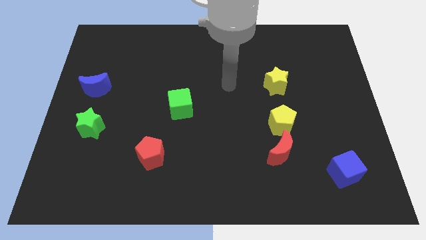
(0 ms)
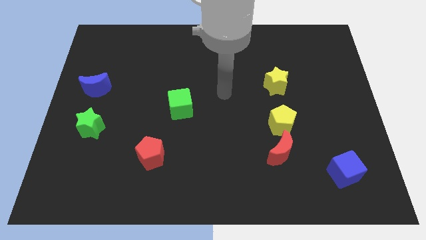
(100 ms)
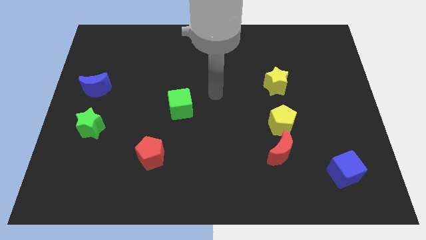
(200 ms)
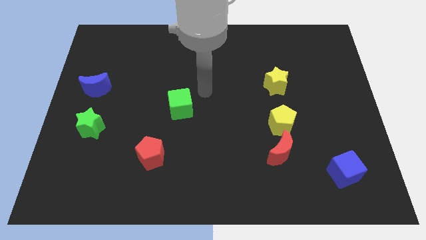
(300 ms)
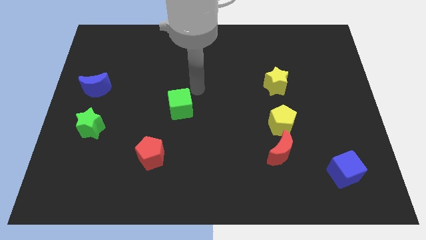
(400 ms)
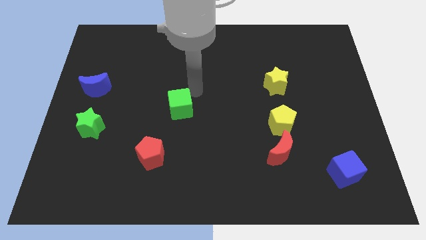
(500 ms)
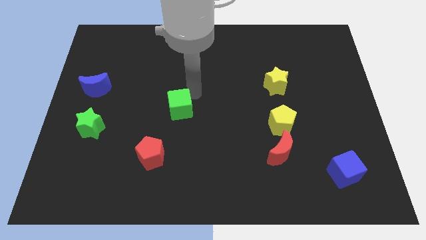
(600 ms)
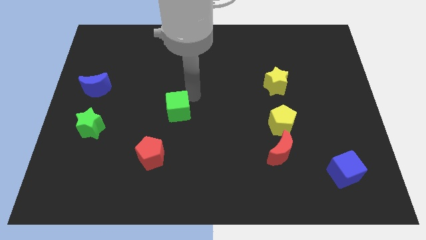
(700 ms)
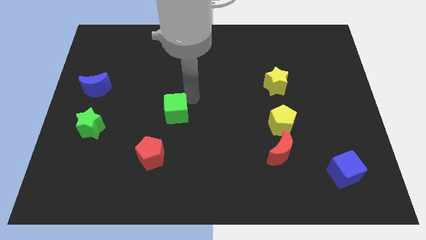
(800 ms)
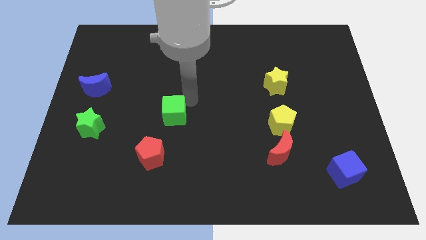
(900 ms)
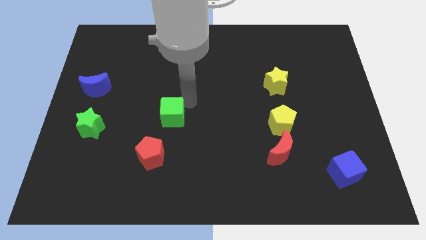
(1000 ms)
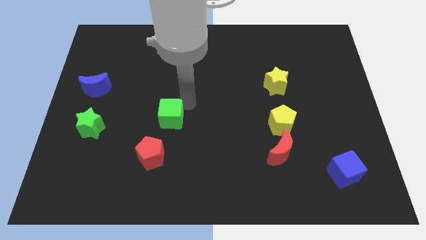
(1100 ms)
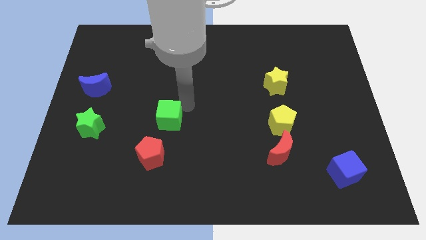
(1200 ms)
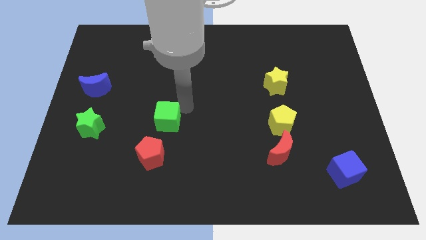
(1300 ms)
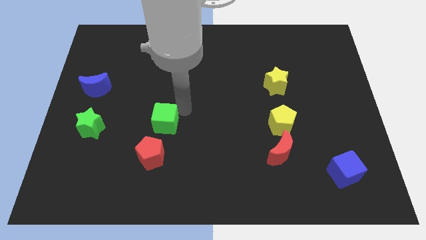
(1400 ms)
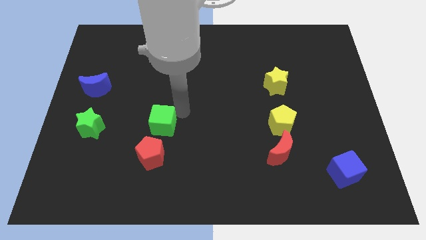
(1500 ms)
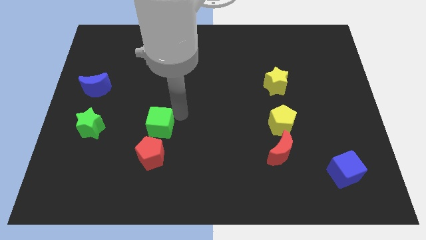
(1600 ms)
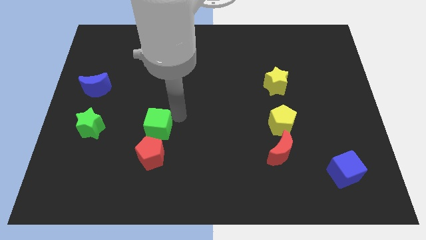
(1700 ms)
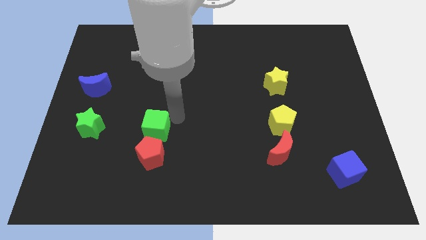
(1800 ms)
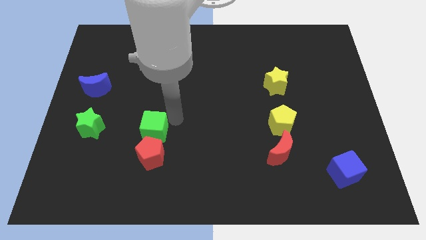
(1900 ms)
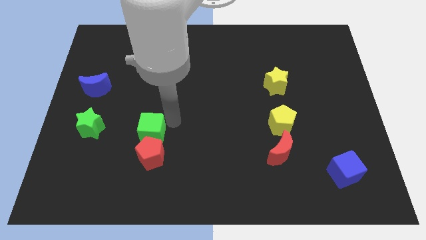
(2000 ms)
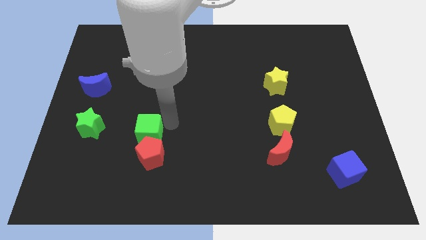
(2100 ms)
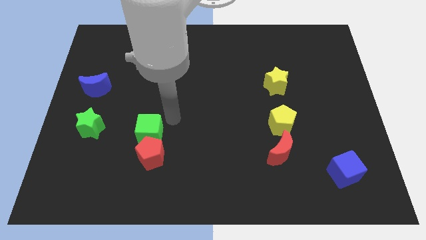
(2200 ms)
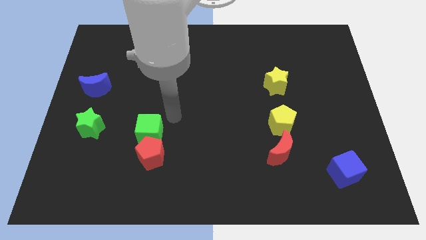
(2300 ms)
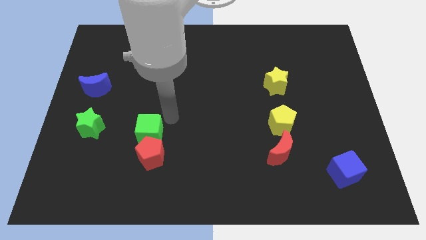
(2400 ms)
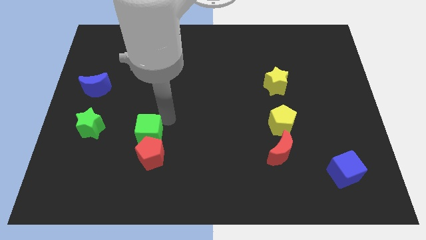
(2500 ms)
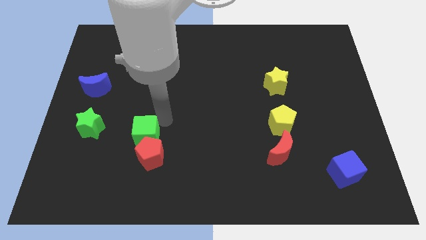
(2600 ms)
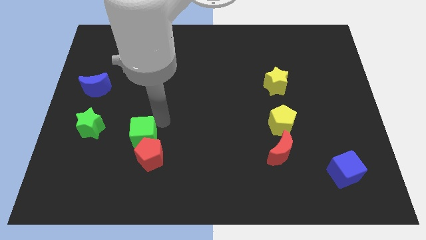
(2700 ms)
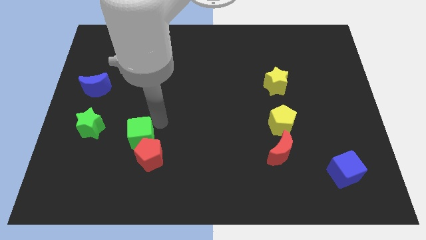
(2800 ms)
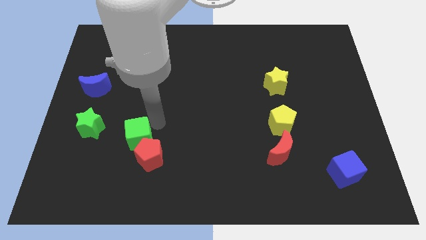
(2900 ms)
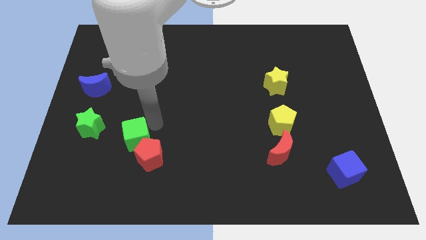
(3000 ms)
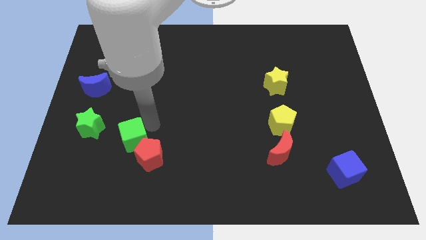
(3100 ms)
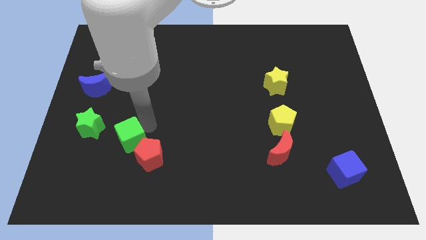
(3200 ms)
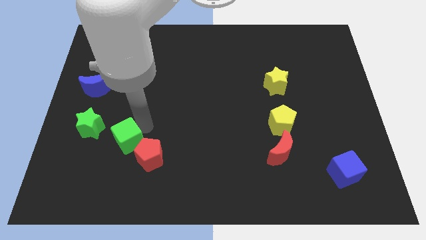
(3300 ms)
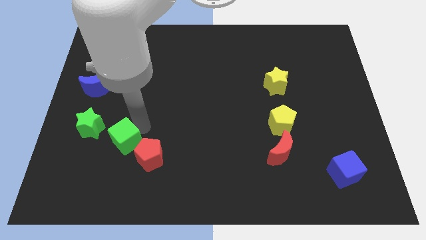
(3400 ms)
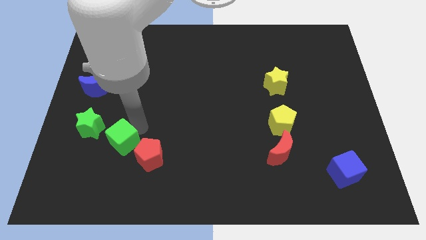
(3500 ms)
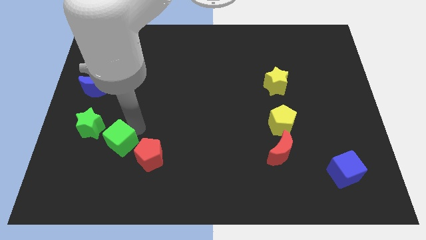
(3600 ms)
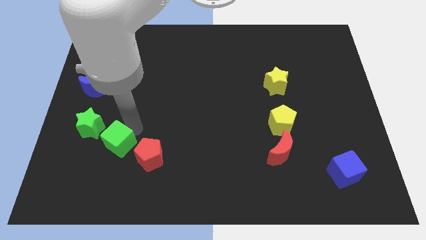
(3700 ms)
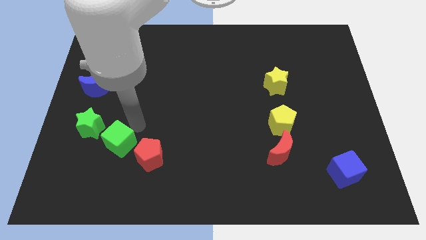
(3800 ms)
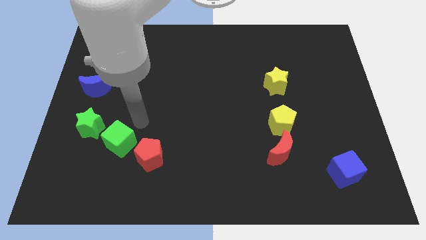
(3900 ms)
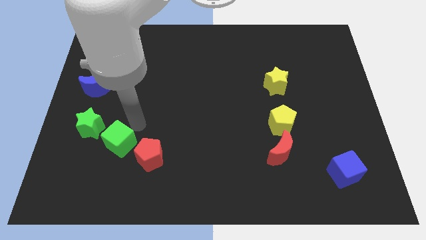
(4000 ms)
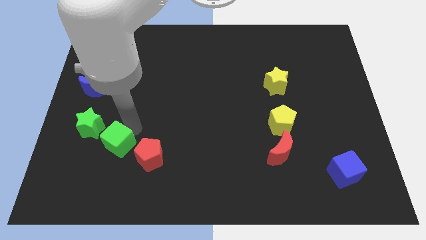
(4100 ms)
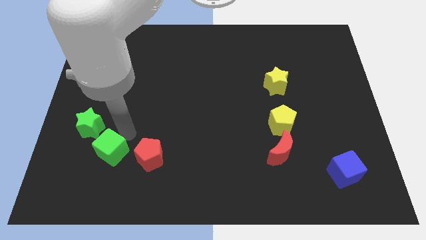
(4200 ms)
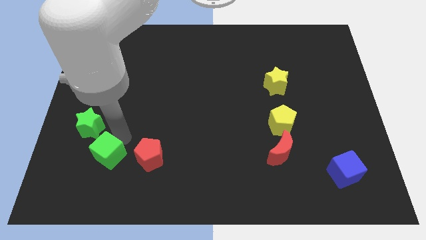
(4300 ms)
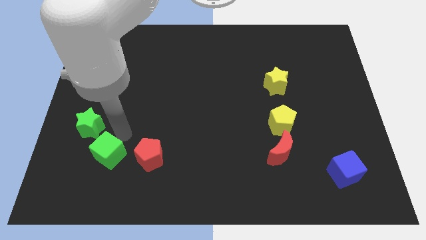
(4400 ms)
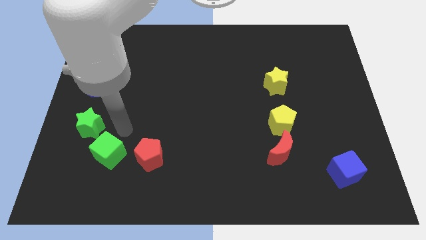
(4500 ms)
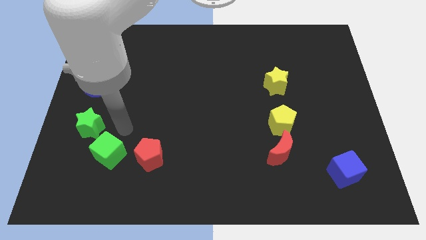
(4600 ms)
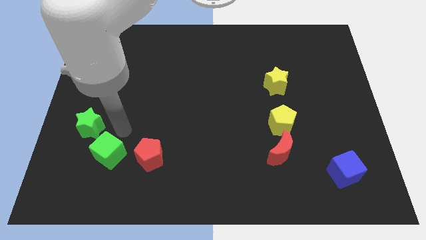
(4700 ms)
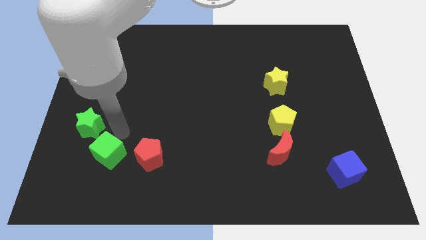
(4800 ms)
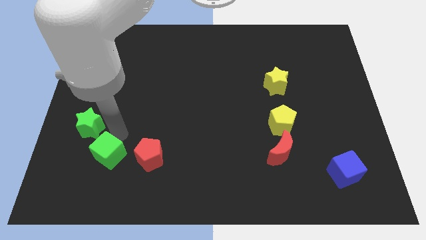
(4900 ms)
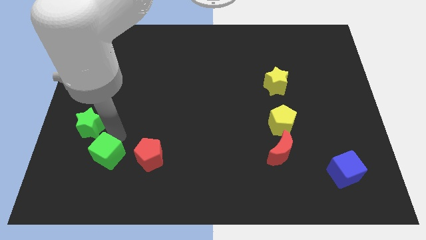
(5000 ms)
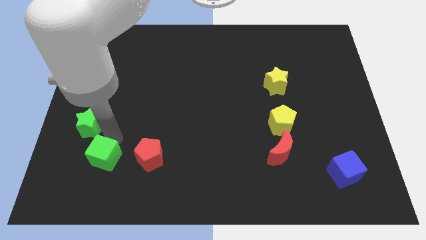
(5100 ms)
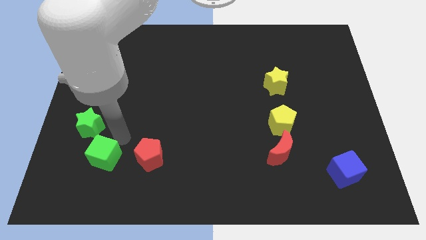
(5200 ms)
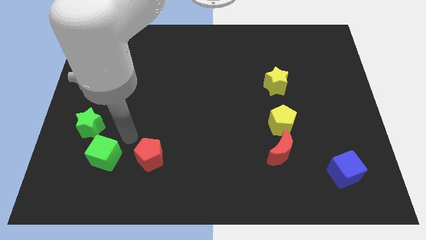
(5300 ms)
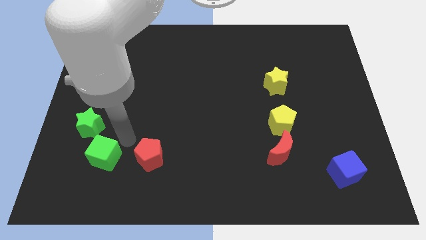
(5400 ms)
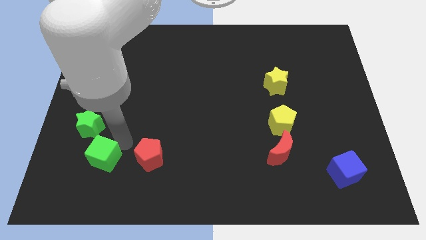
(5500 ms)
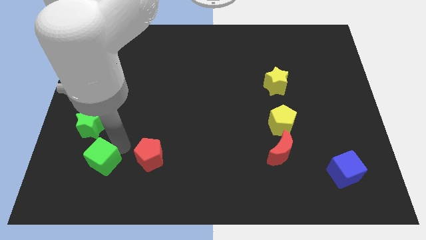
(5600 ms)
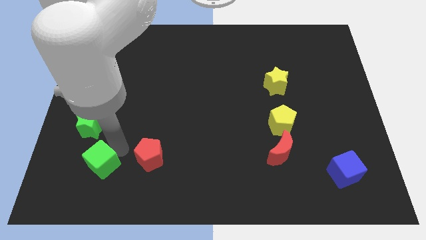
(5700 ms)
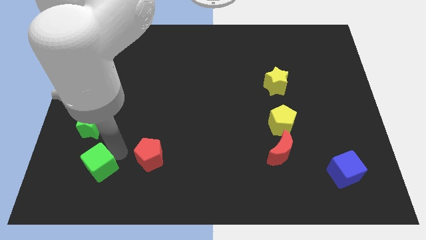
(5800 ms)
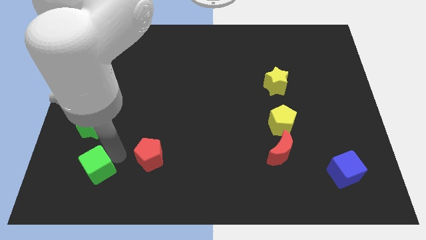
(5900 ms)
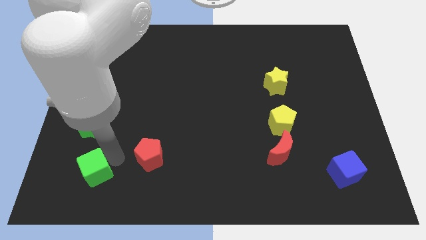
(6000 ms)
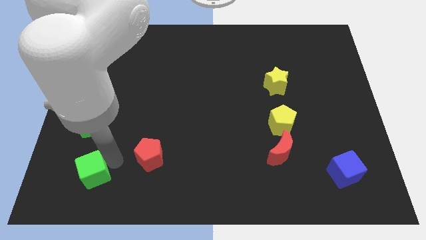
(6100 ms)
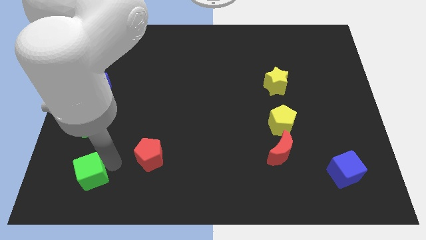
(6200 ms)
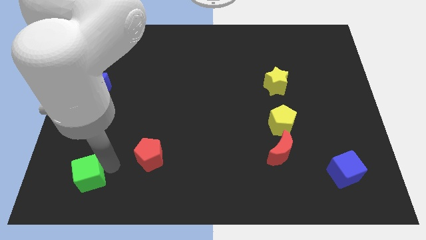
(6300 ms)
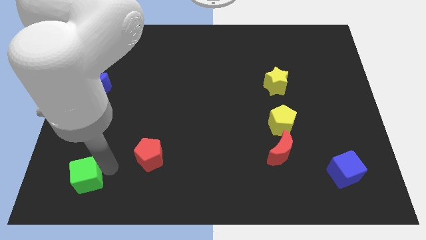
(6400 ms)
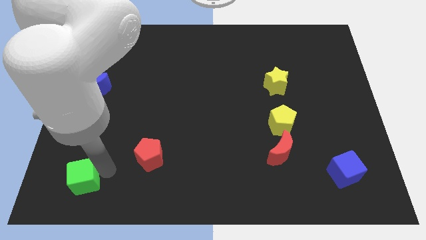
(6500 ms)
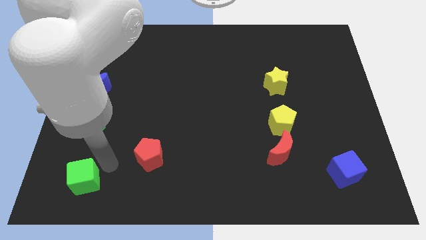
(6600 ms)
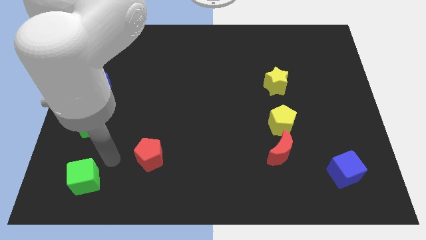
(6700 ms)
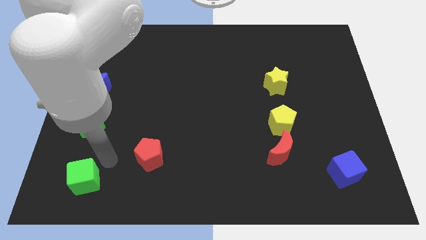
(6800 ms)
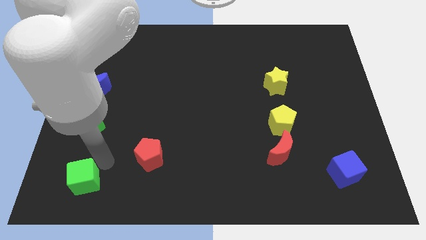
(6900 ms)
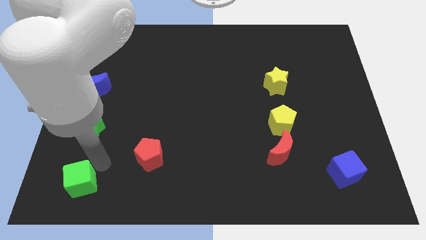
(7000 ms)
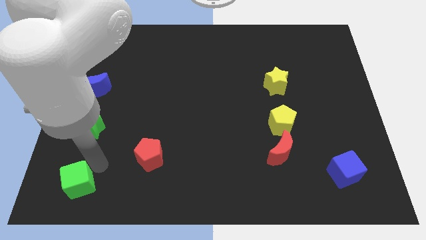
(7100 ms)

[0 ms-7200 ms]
push the green cube to the bottom left of the board
